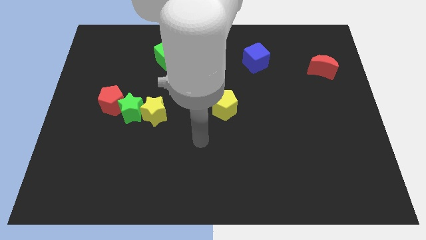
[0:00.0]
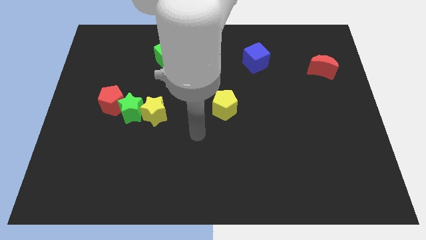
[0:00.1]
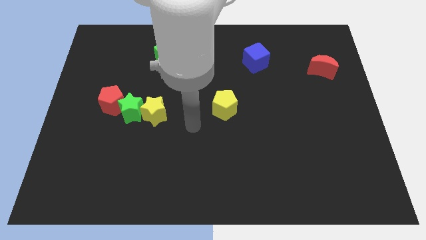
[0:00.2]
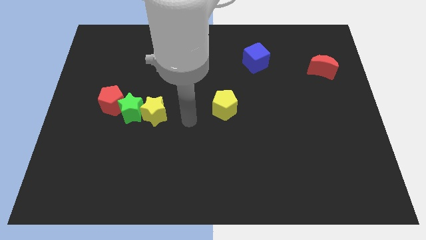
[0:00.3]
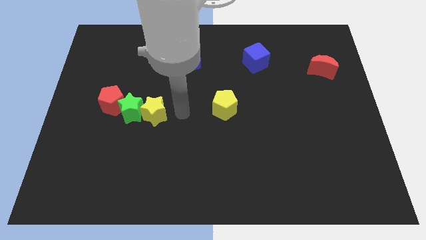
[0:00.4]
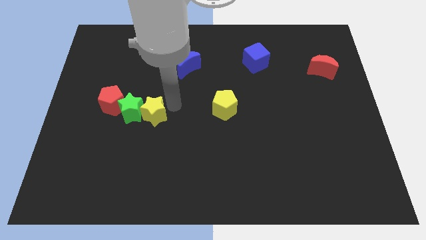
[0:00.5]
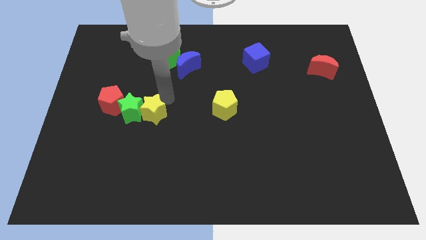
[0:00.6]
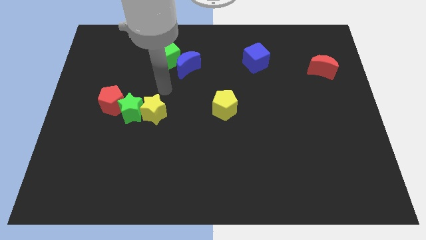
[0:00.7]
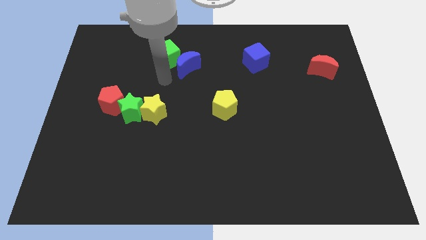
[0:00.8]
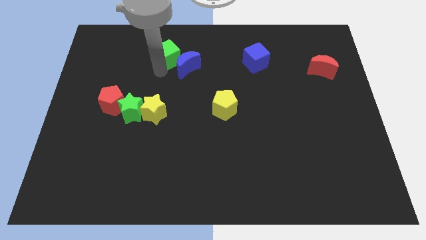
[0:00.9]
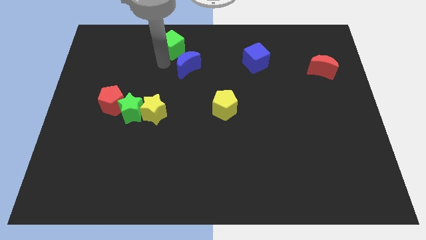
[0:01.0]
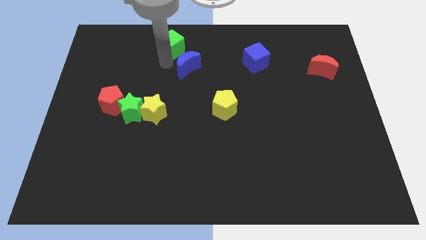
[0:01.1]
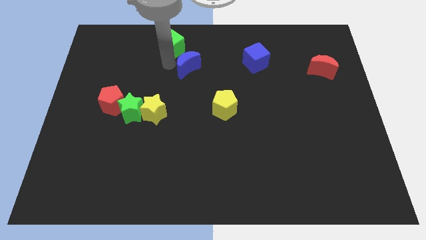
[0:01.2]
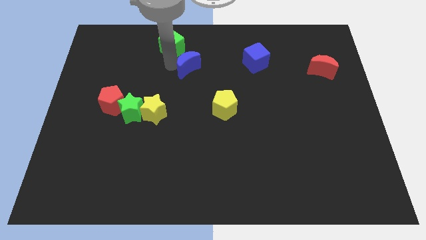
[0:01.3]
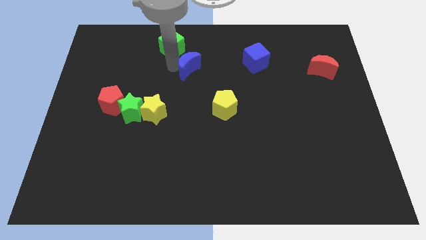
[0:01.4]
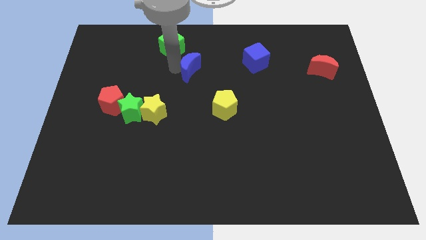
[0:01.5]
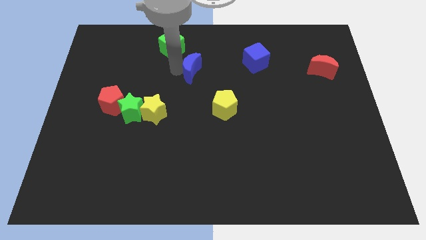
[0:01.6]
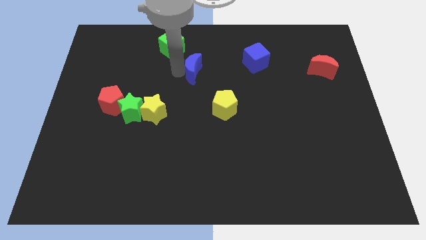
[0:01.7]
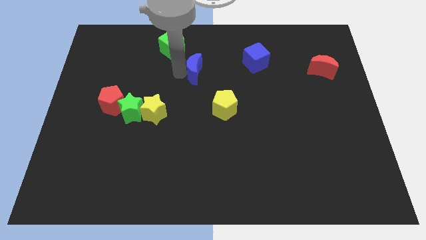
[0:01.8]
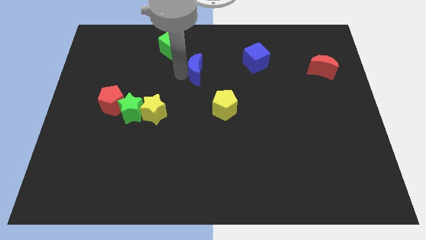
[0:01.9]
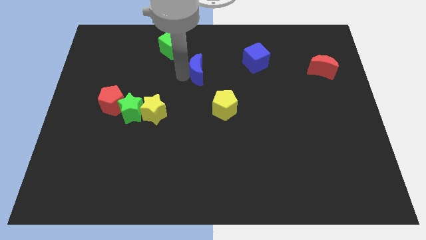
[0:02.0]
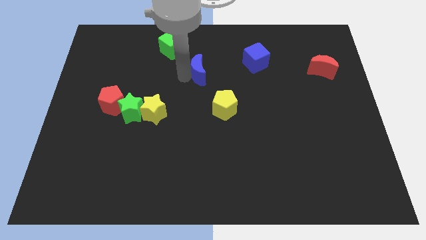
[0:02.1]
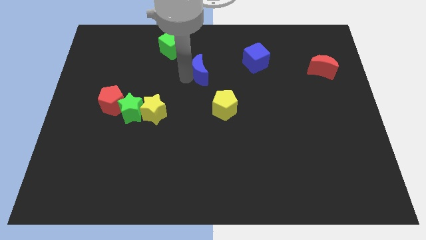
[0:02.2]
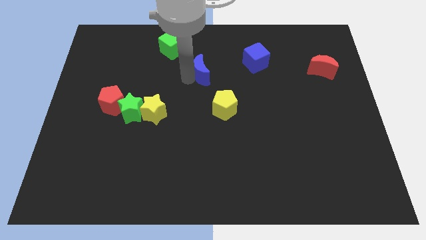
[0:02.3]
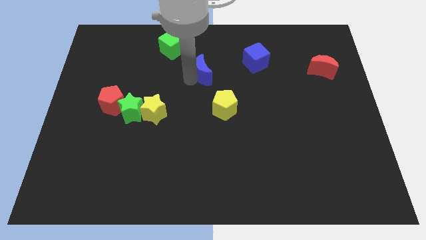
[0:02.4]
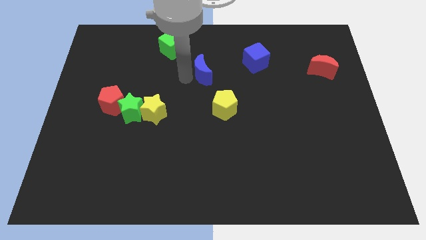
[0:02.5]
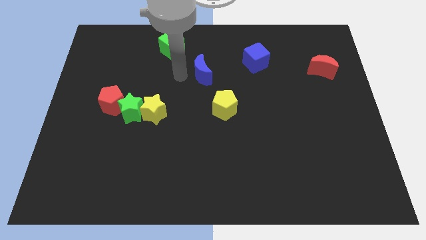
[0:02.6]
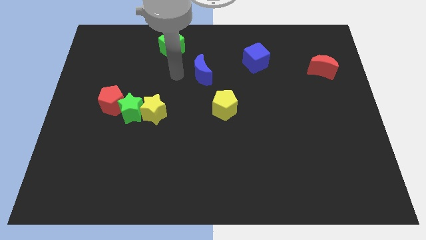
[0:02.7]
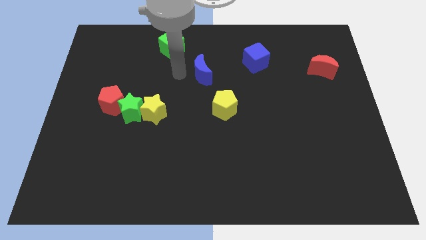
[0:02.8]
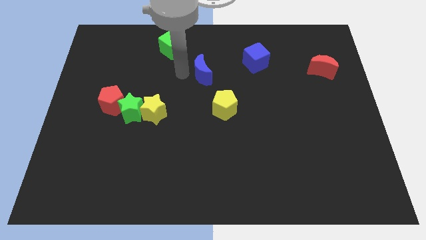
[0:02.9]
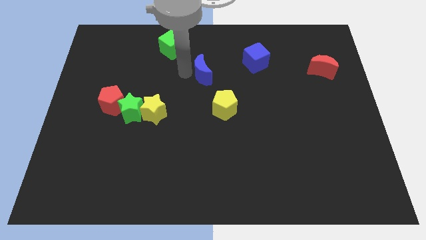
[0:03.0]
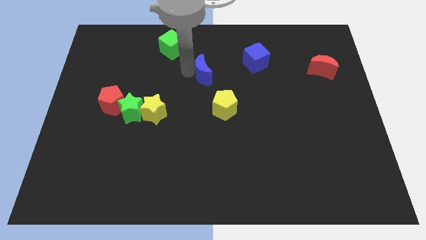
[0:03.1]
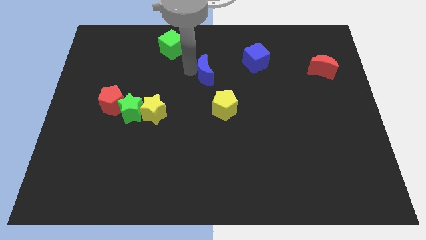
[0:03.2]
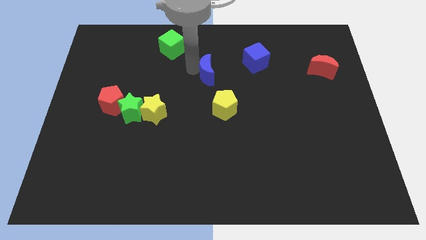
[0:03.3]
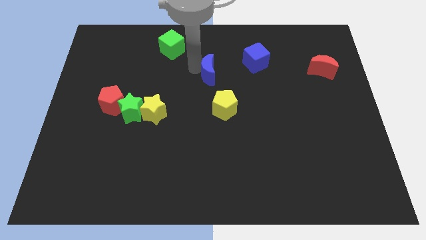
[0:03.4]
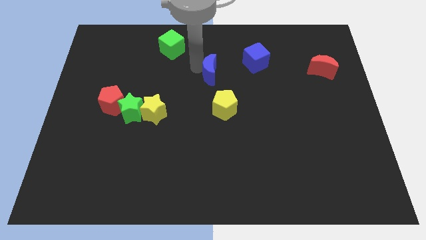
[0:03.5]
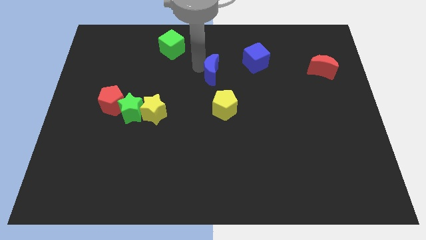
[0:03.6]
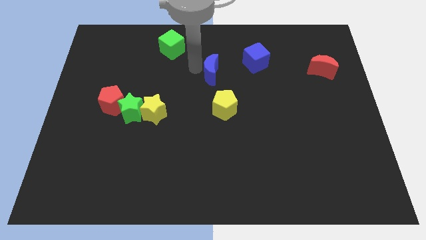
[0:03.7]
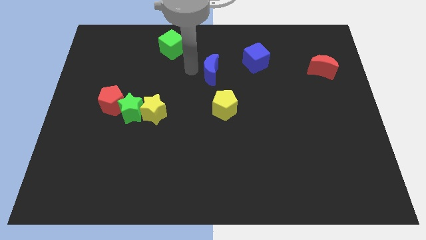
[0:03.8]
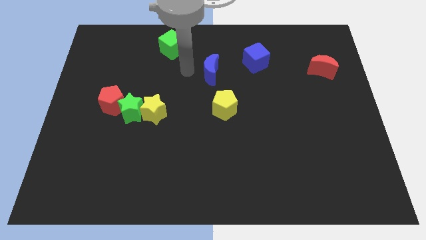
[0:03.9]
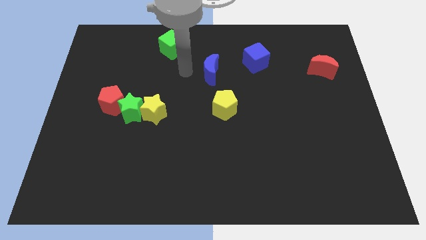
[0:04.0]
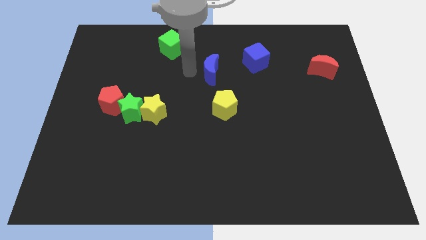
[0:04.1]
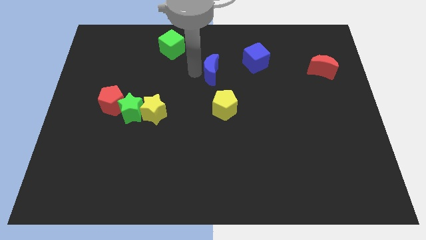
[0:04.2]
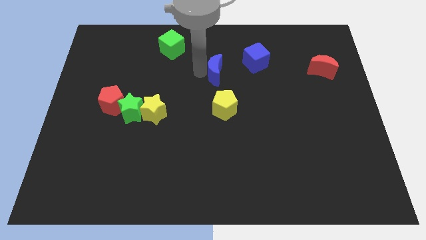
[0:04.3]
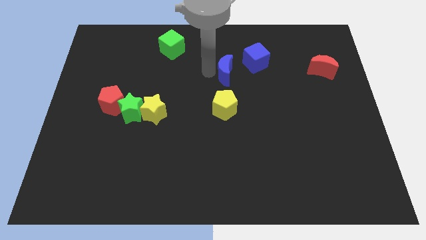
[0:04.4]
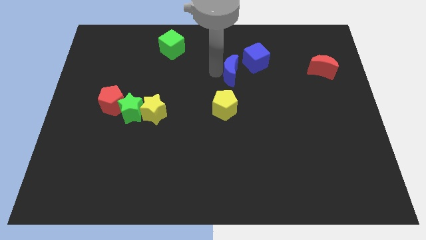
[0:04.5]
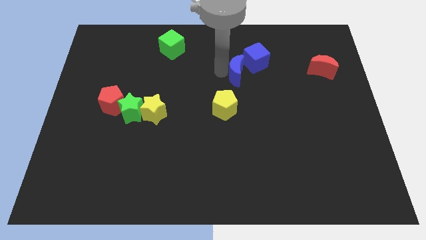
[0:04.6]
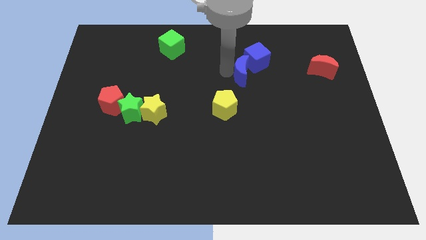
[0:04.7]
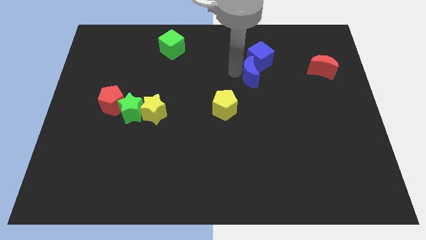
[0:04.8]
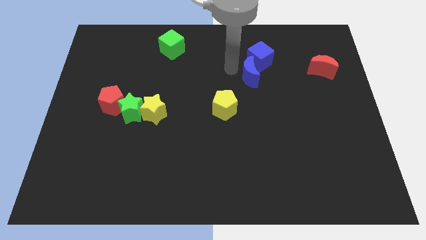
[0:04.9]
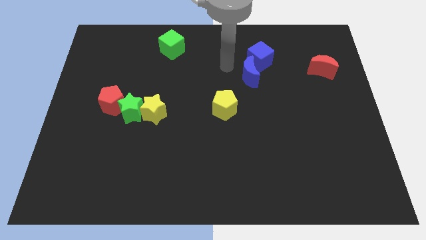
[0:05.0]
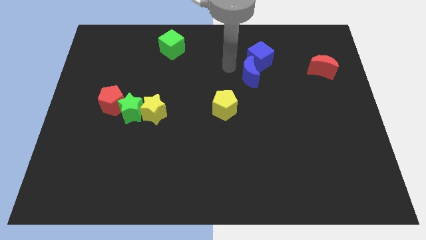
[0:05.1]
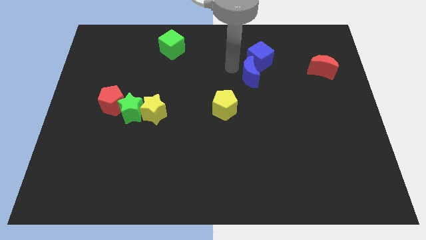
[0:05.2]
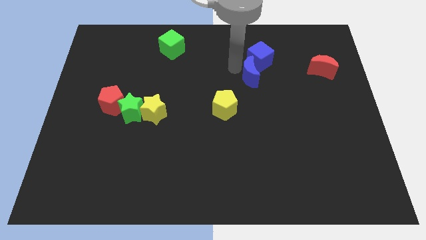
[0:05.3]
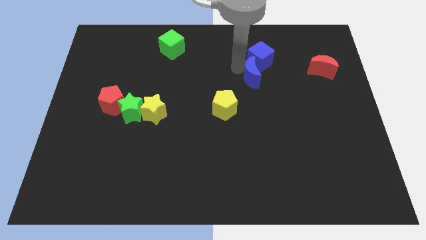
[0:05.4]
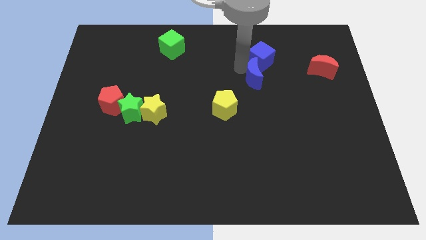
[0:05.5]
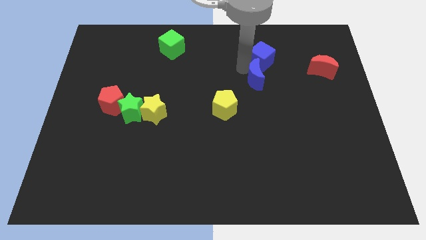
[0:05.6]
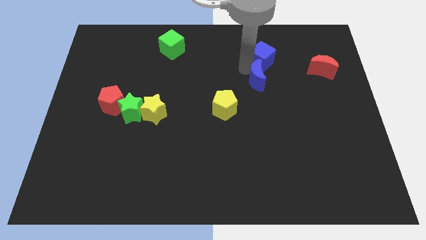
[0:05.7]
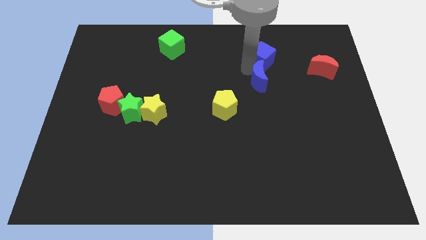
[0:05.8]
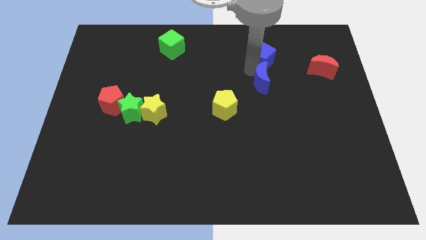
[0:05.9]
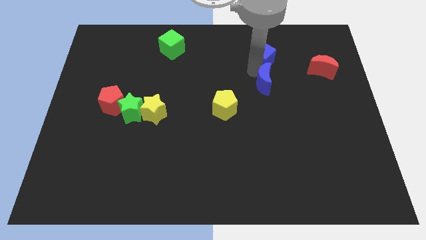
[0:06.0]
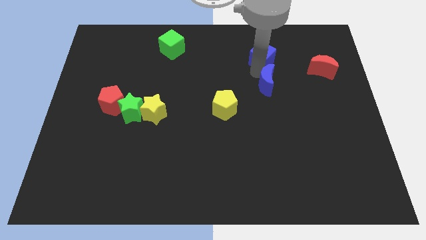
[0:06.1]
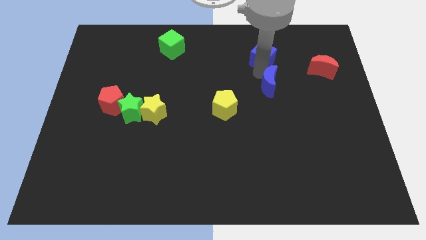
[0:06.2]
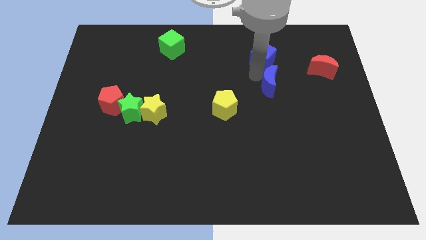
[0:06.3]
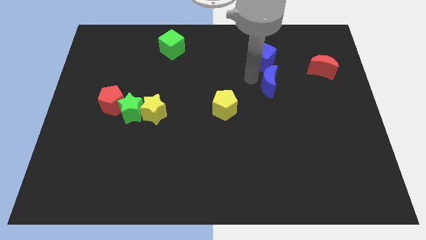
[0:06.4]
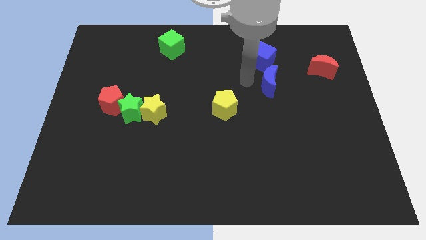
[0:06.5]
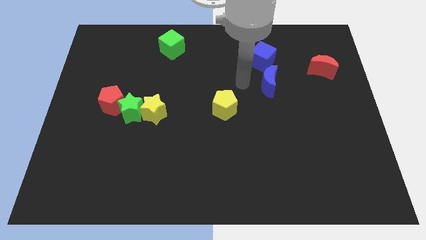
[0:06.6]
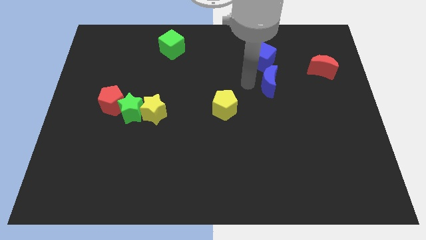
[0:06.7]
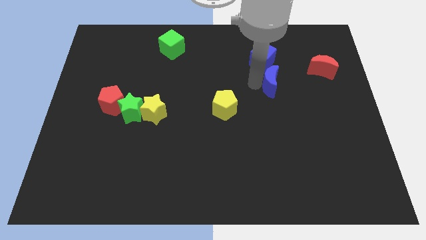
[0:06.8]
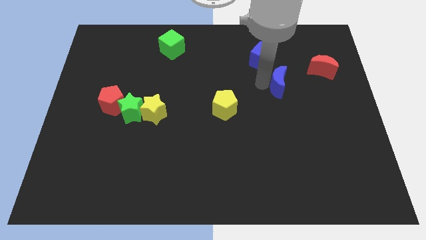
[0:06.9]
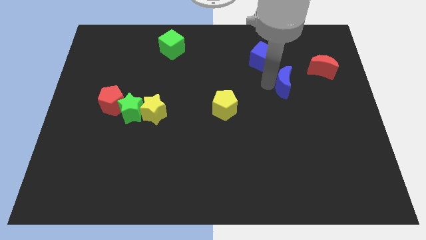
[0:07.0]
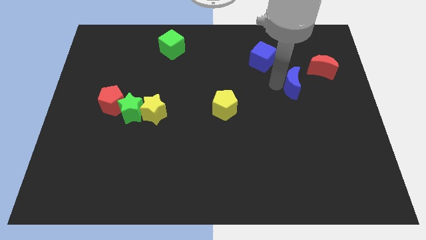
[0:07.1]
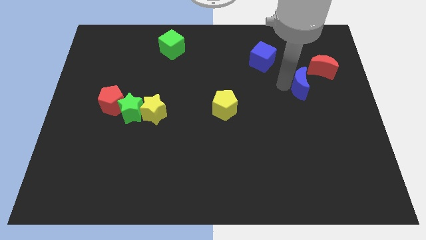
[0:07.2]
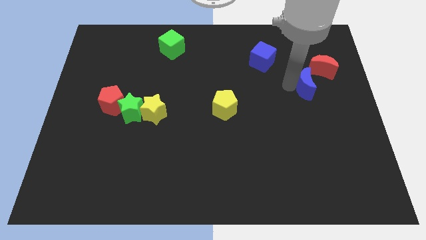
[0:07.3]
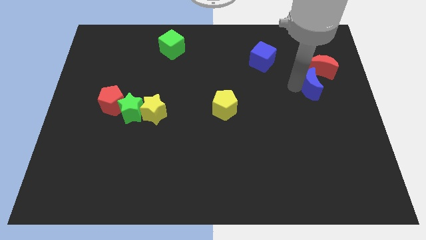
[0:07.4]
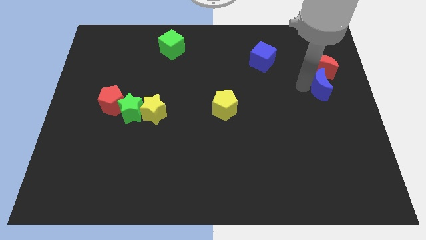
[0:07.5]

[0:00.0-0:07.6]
push the blue moon to the right side of the board
